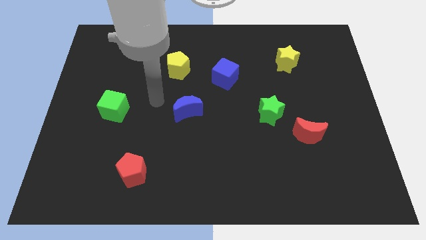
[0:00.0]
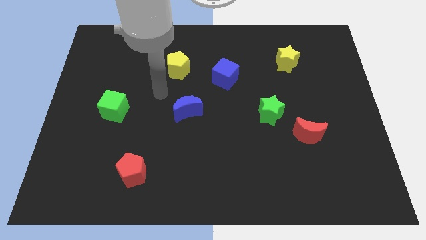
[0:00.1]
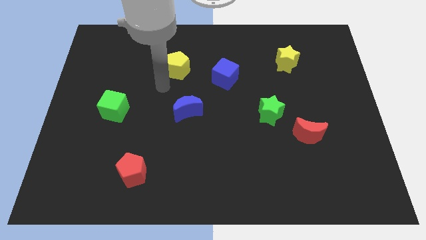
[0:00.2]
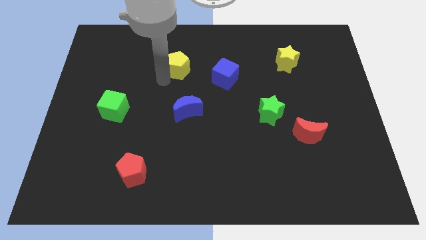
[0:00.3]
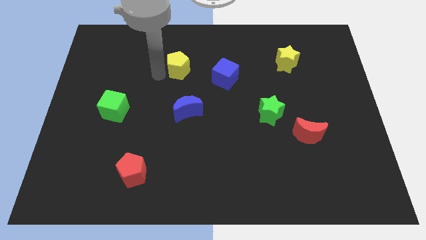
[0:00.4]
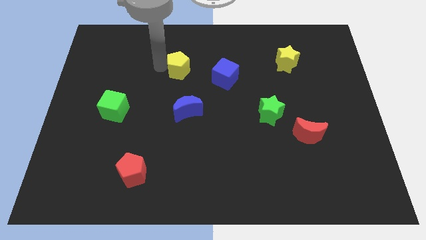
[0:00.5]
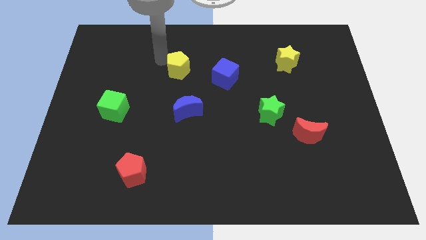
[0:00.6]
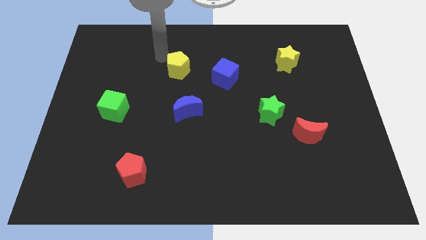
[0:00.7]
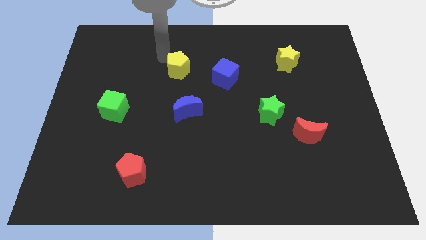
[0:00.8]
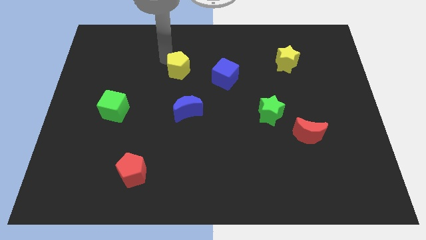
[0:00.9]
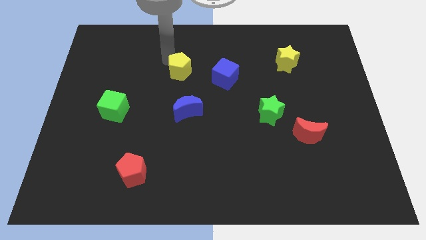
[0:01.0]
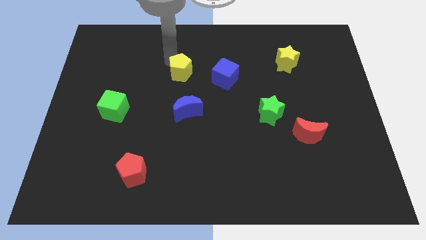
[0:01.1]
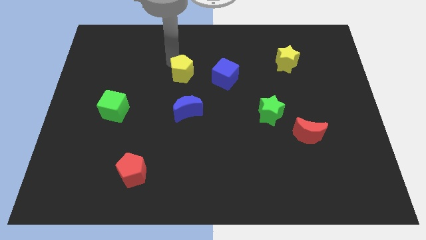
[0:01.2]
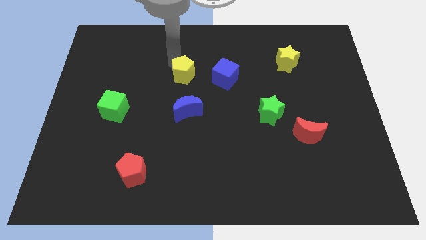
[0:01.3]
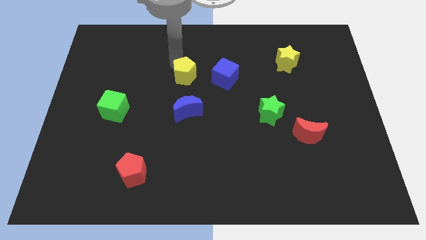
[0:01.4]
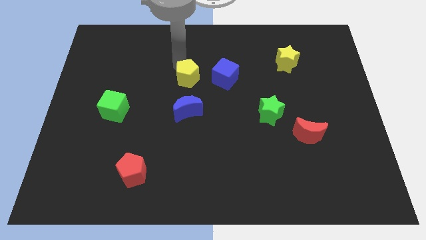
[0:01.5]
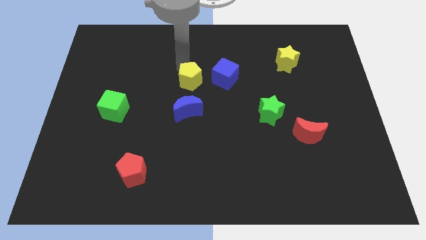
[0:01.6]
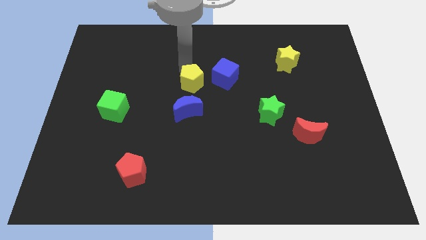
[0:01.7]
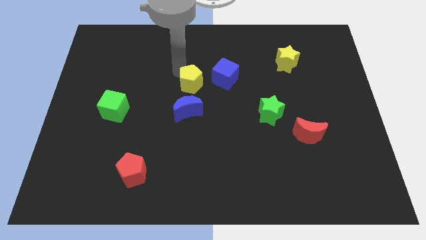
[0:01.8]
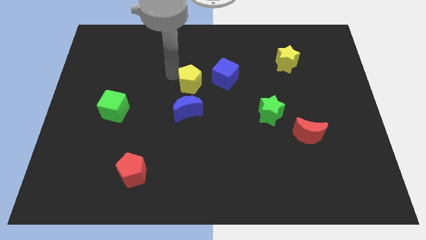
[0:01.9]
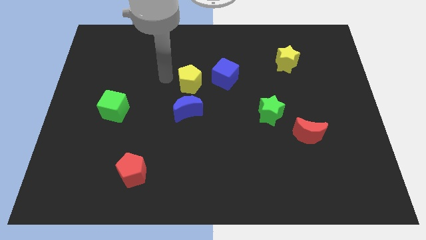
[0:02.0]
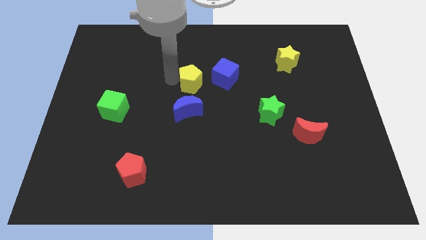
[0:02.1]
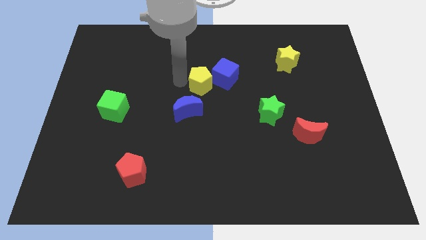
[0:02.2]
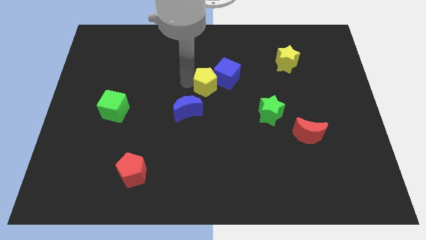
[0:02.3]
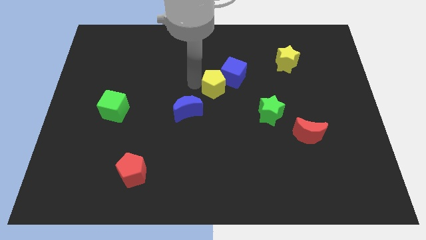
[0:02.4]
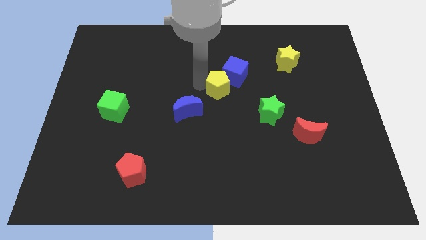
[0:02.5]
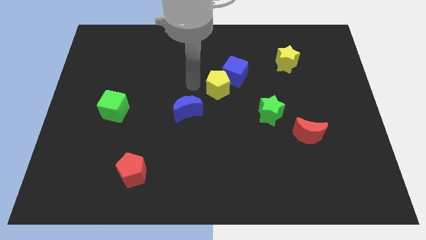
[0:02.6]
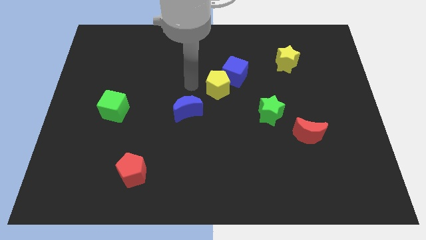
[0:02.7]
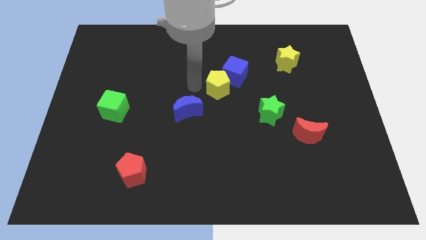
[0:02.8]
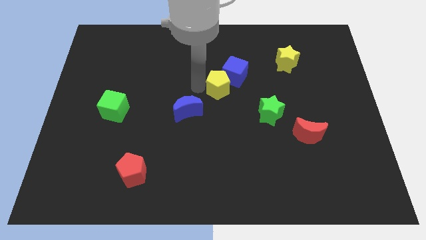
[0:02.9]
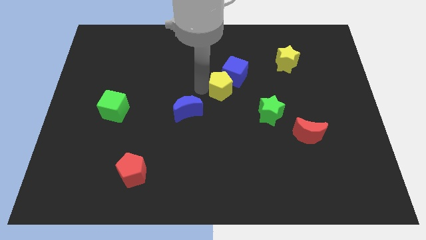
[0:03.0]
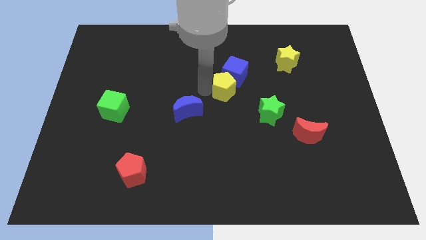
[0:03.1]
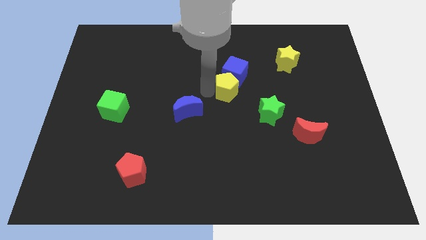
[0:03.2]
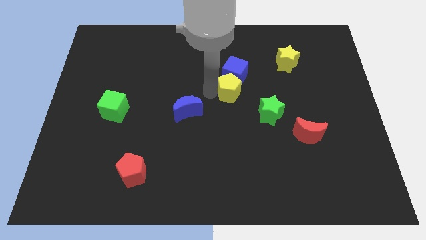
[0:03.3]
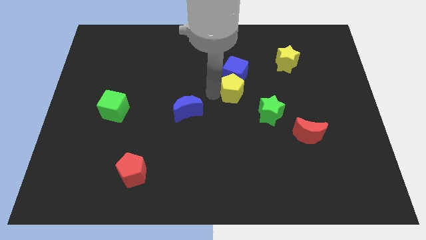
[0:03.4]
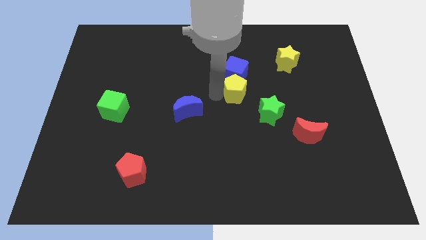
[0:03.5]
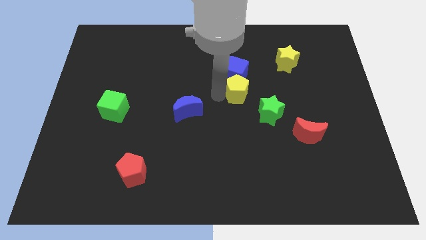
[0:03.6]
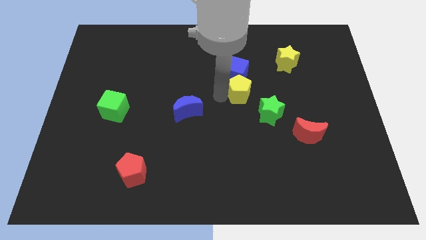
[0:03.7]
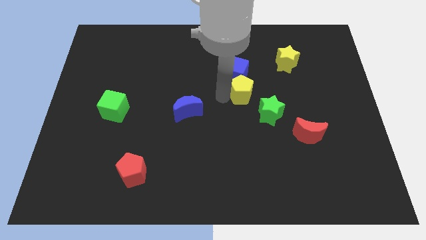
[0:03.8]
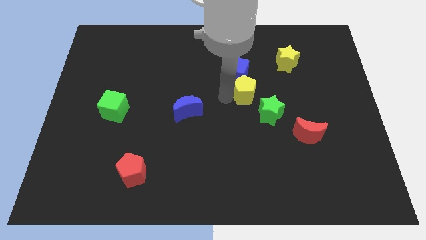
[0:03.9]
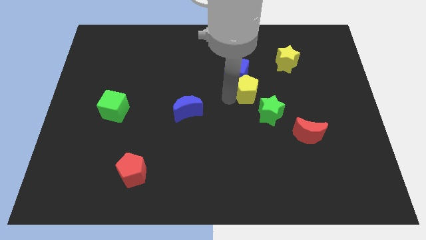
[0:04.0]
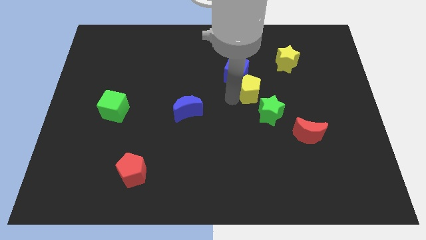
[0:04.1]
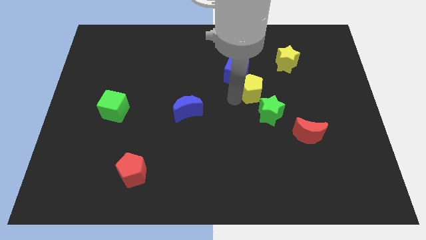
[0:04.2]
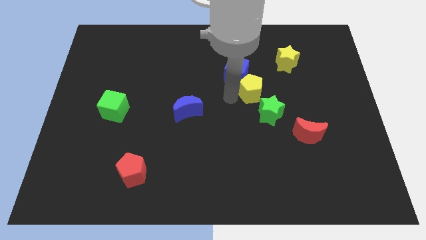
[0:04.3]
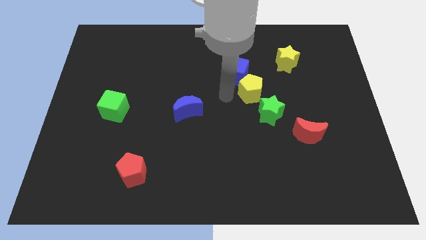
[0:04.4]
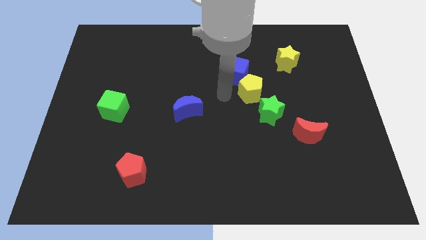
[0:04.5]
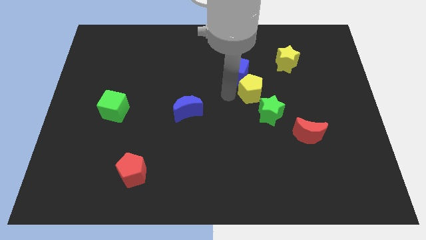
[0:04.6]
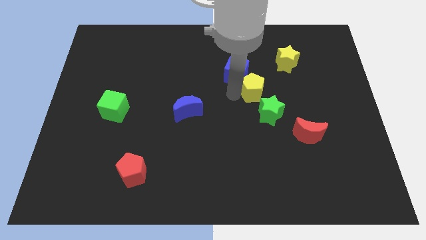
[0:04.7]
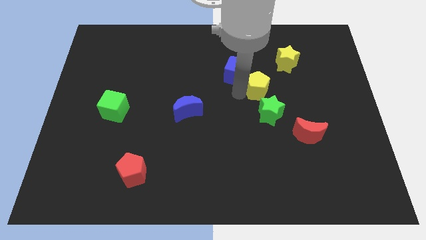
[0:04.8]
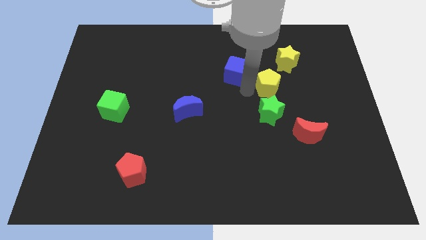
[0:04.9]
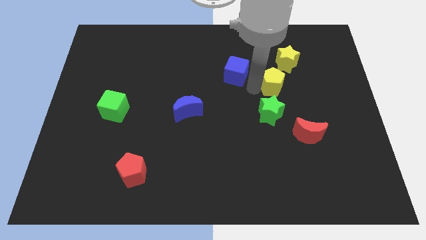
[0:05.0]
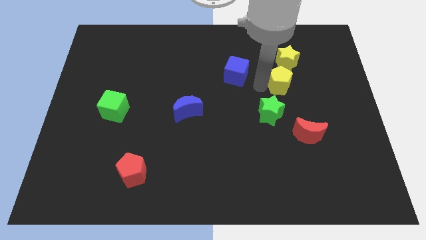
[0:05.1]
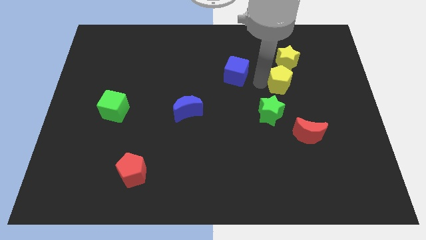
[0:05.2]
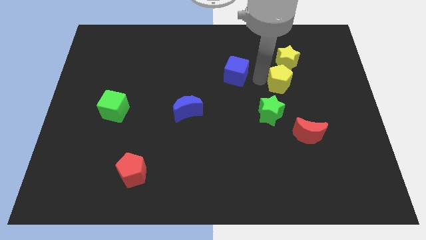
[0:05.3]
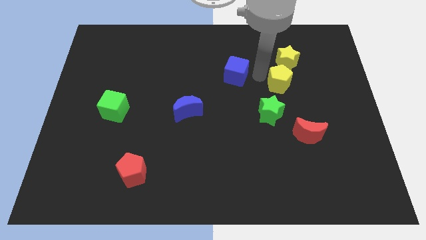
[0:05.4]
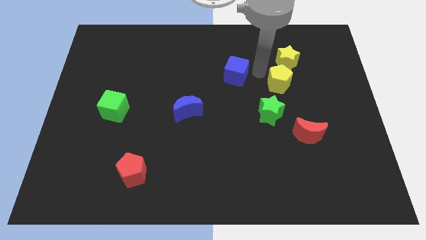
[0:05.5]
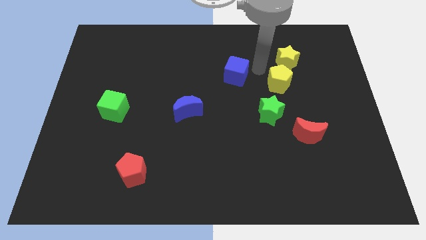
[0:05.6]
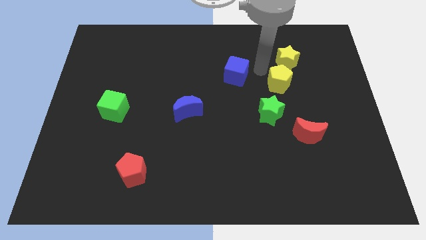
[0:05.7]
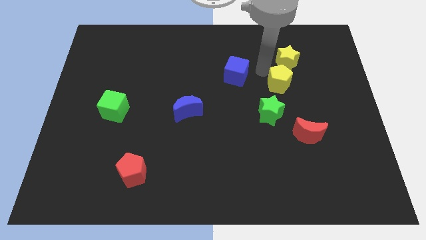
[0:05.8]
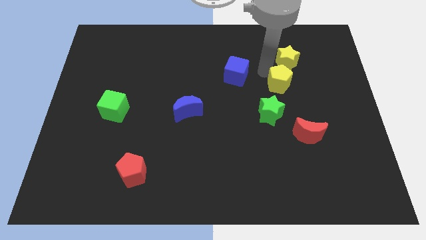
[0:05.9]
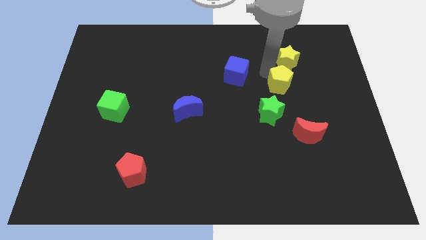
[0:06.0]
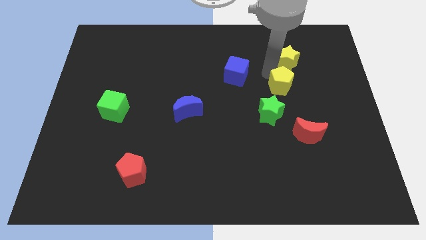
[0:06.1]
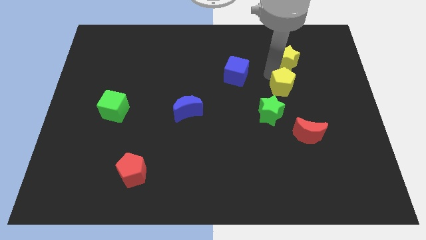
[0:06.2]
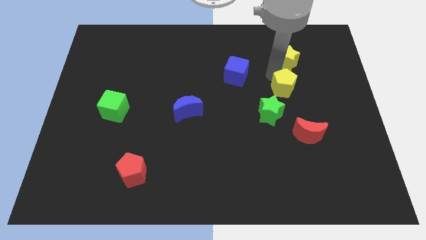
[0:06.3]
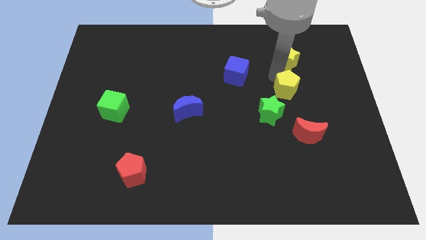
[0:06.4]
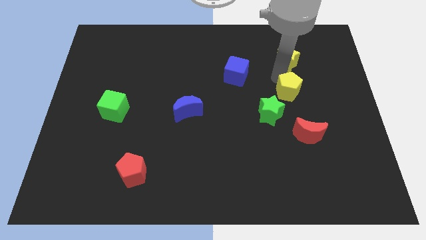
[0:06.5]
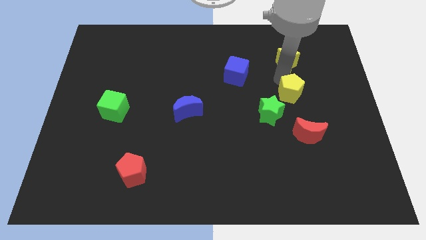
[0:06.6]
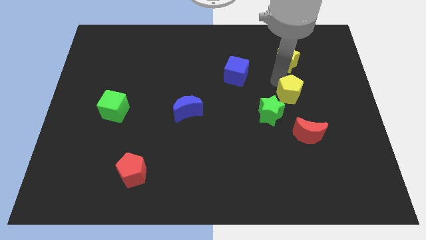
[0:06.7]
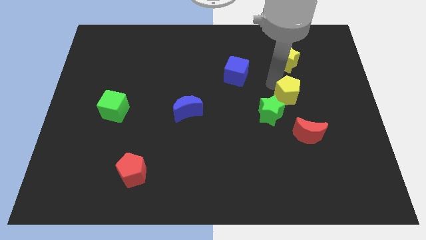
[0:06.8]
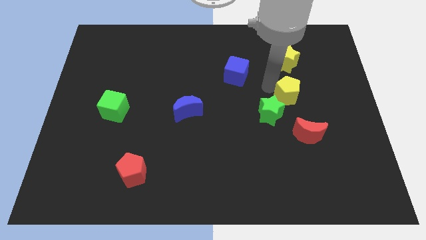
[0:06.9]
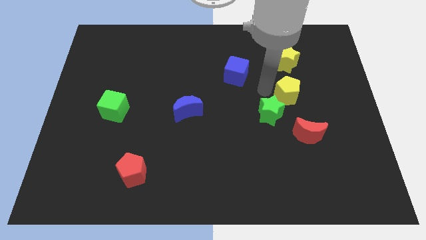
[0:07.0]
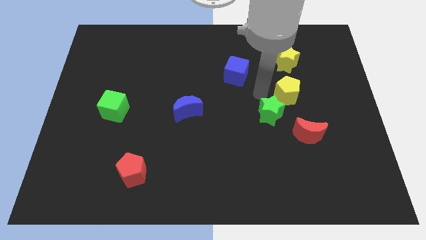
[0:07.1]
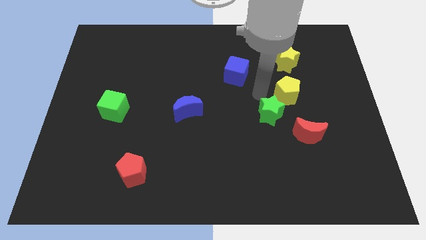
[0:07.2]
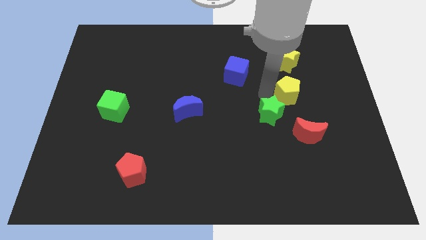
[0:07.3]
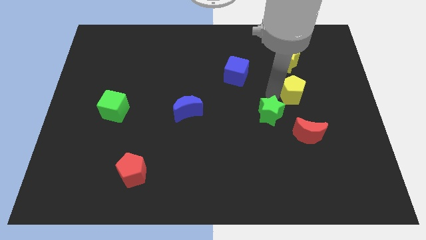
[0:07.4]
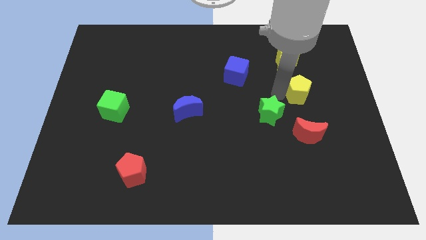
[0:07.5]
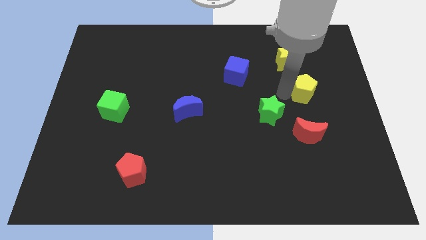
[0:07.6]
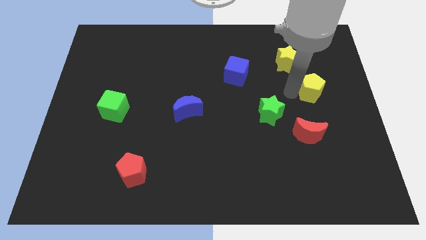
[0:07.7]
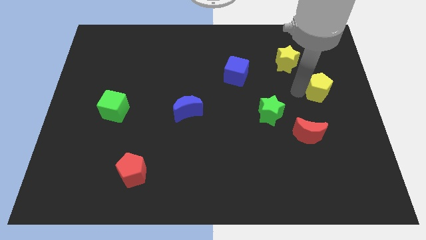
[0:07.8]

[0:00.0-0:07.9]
move the yellow pentagon to the right side of the board
